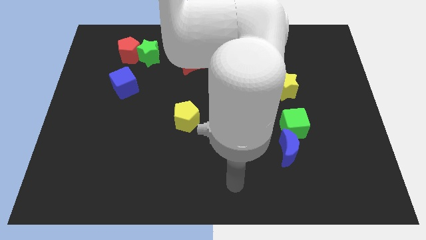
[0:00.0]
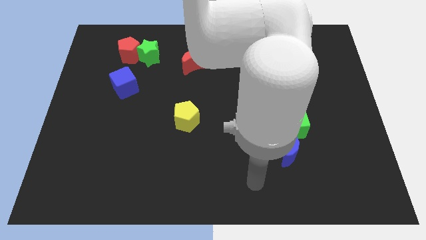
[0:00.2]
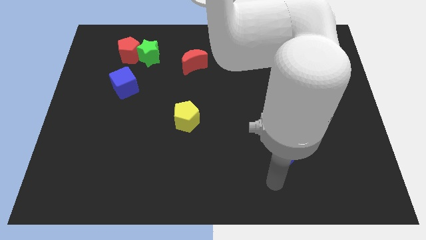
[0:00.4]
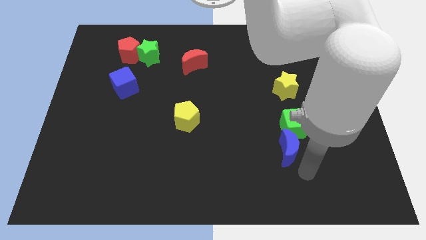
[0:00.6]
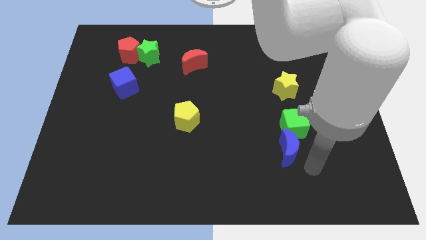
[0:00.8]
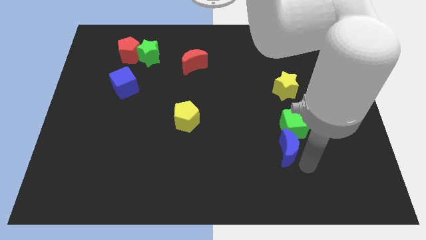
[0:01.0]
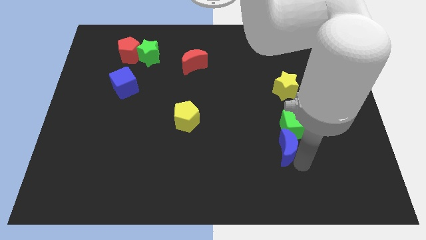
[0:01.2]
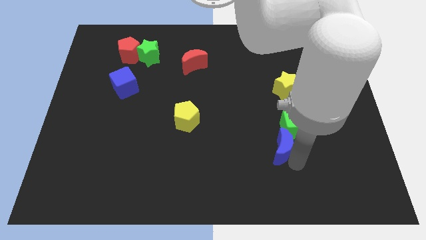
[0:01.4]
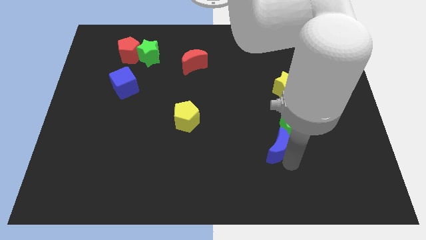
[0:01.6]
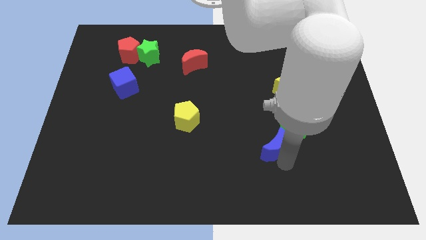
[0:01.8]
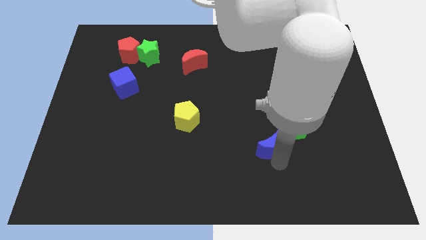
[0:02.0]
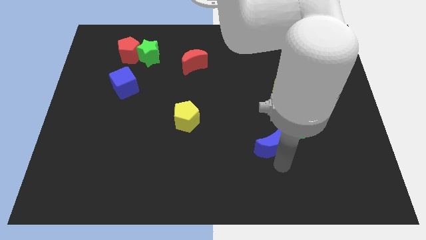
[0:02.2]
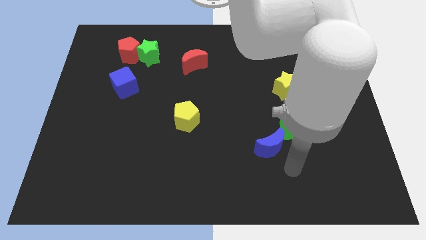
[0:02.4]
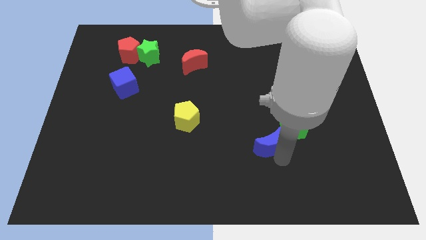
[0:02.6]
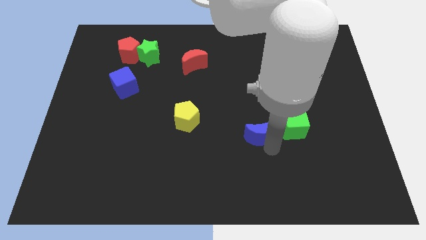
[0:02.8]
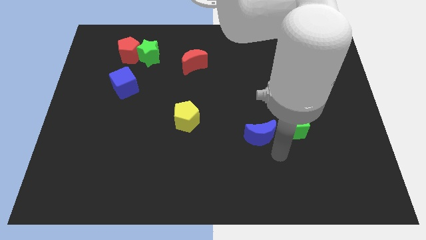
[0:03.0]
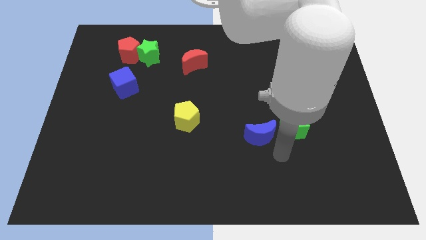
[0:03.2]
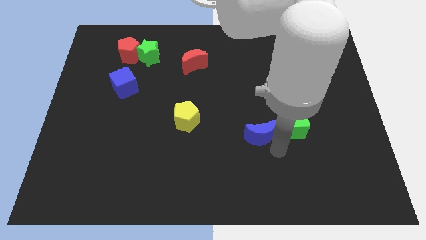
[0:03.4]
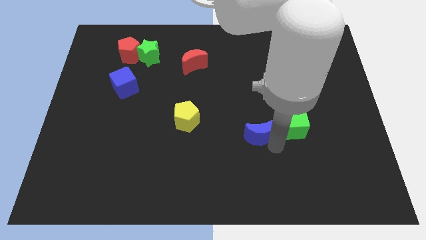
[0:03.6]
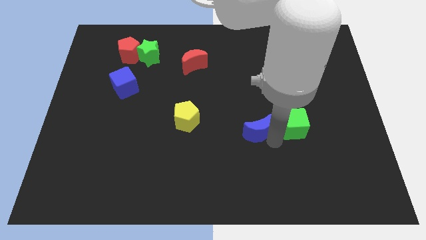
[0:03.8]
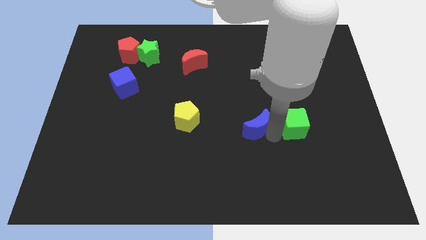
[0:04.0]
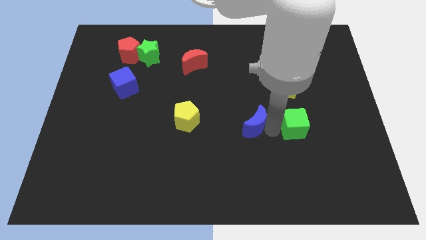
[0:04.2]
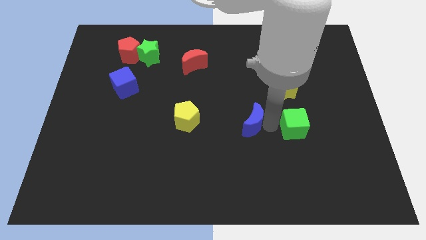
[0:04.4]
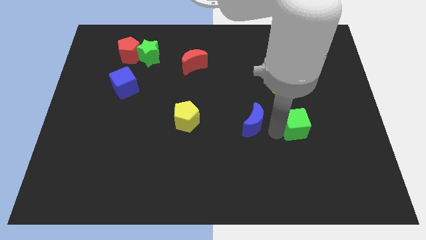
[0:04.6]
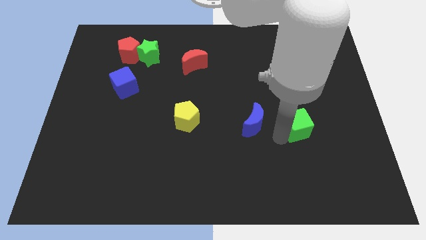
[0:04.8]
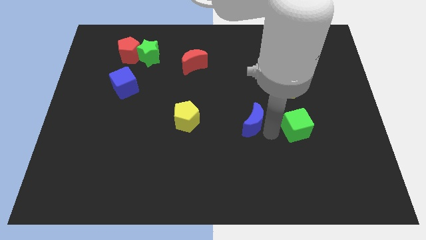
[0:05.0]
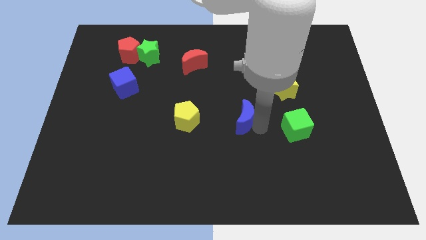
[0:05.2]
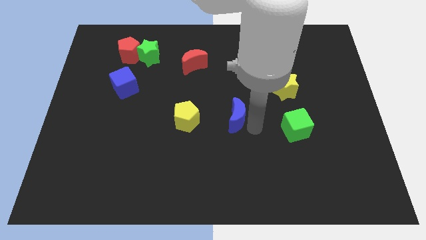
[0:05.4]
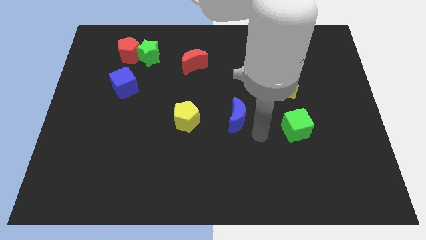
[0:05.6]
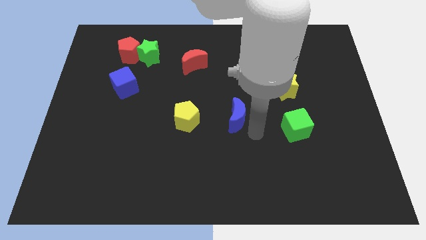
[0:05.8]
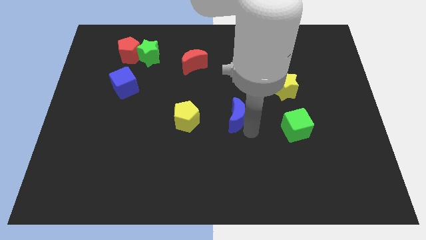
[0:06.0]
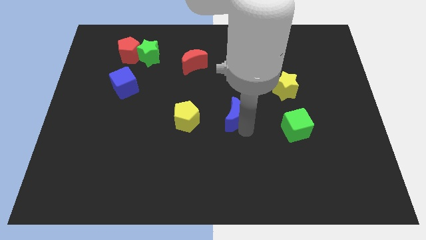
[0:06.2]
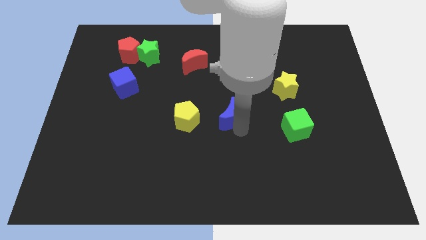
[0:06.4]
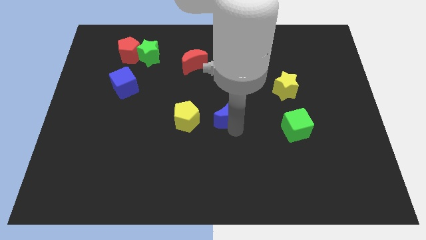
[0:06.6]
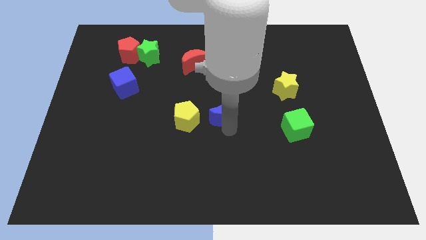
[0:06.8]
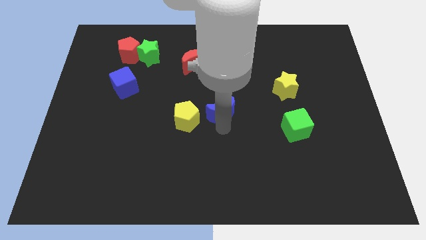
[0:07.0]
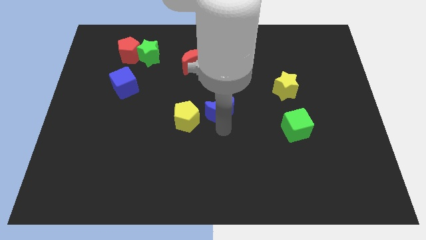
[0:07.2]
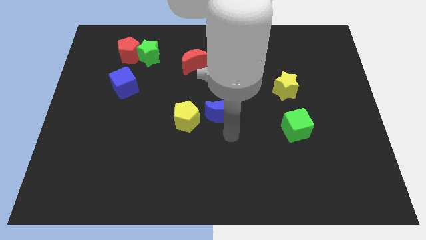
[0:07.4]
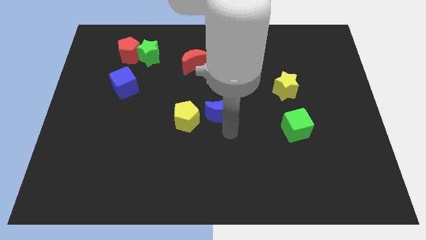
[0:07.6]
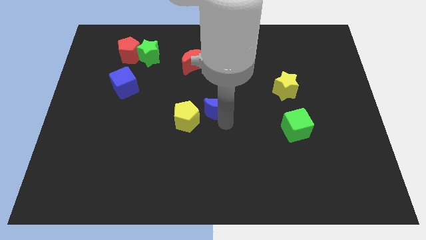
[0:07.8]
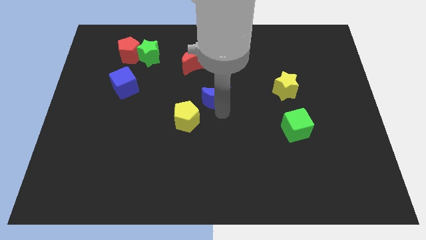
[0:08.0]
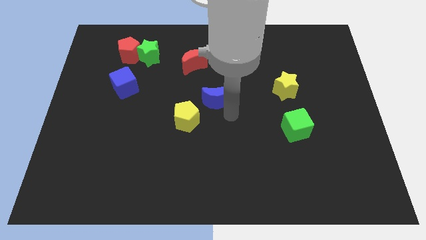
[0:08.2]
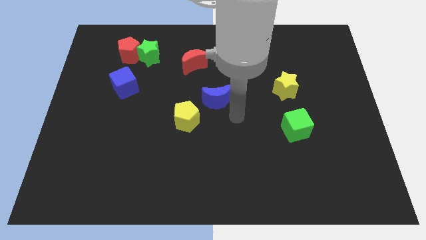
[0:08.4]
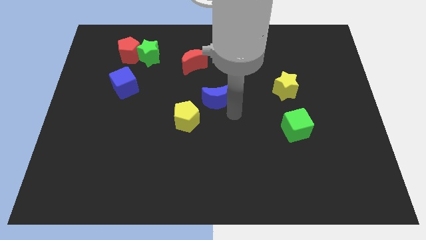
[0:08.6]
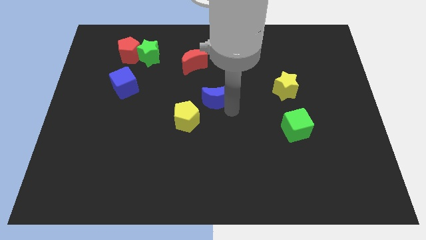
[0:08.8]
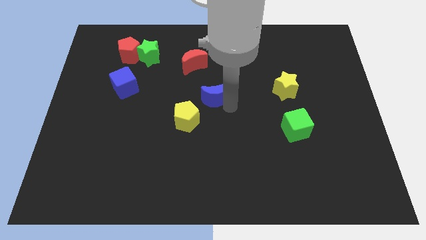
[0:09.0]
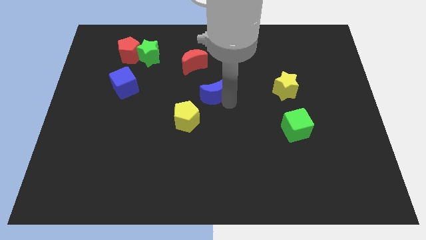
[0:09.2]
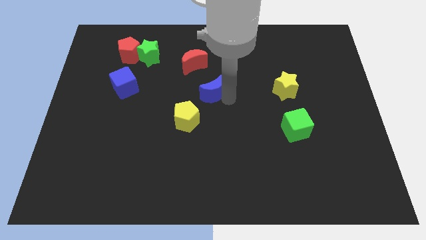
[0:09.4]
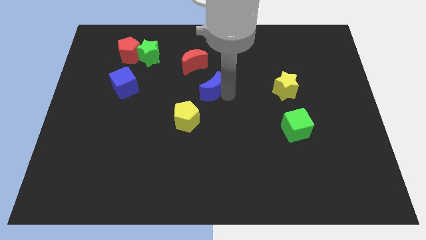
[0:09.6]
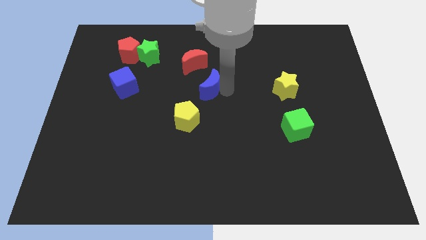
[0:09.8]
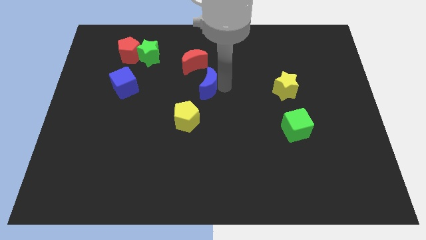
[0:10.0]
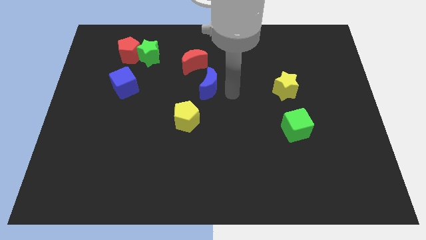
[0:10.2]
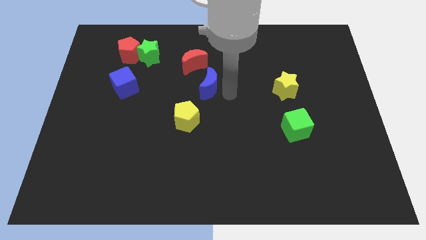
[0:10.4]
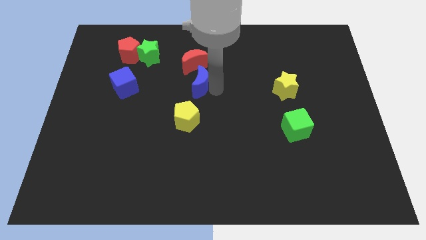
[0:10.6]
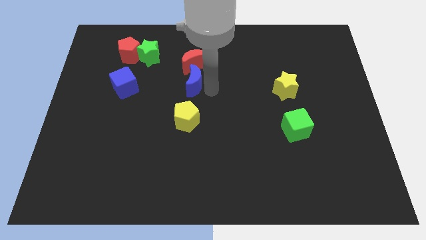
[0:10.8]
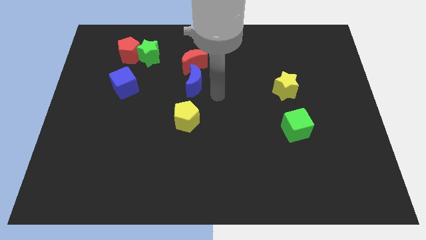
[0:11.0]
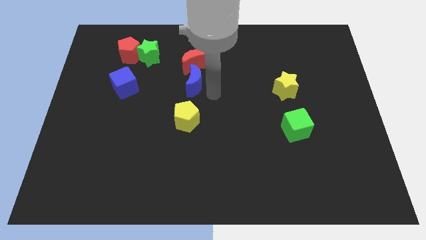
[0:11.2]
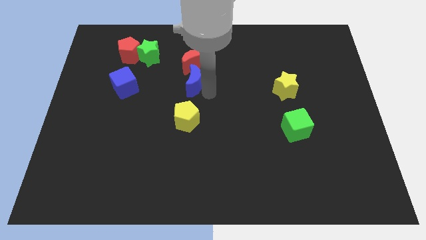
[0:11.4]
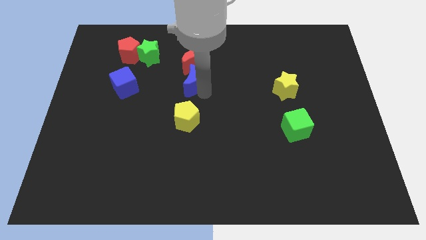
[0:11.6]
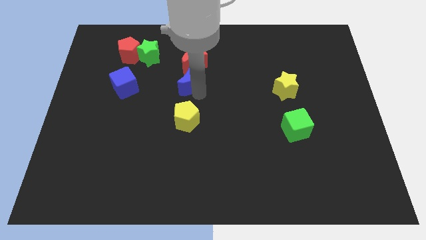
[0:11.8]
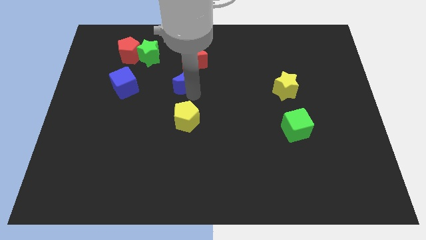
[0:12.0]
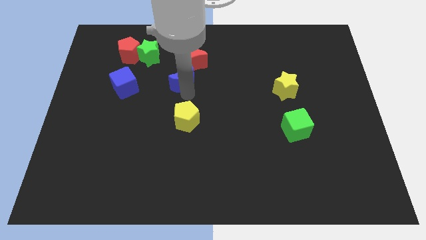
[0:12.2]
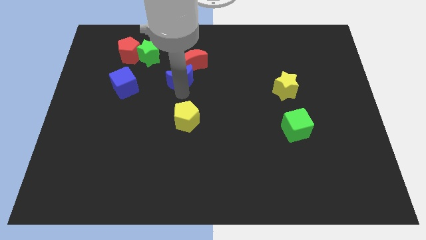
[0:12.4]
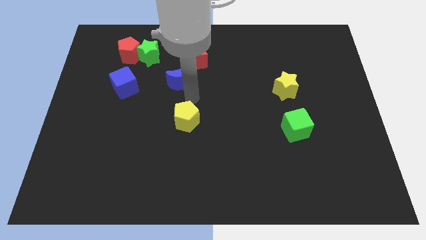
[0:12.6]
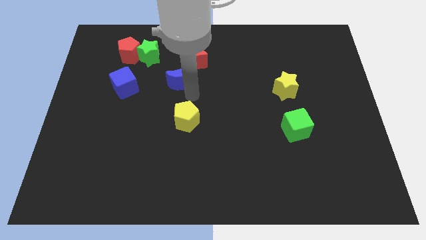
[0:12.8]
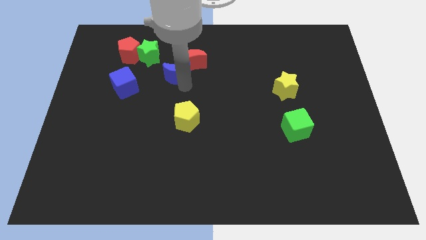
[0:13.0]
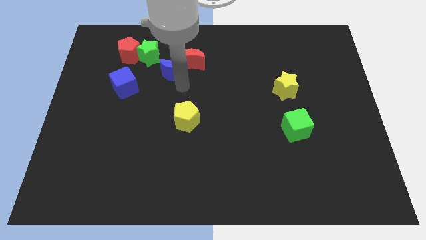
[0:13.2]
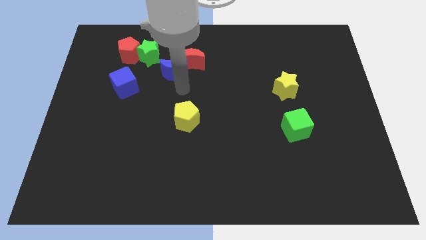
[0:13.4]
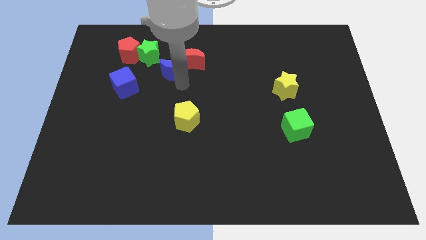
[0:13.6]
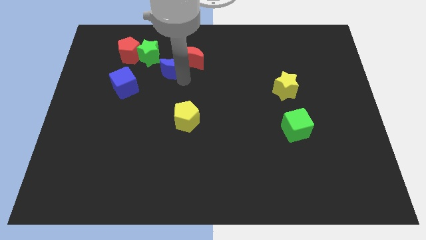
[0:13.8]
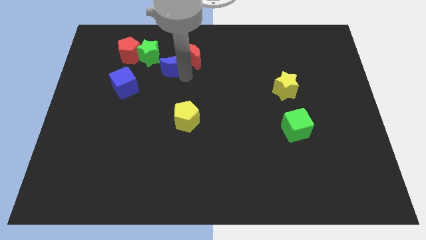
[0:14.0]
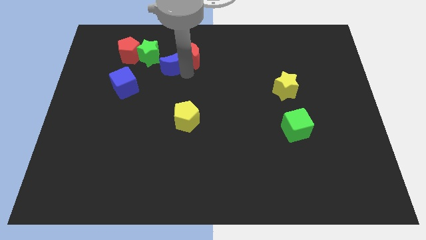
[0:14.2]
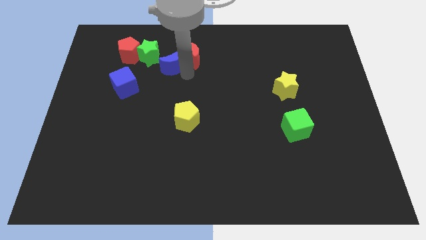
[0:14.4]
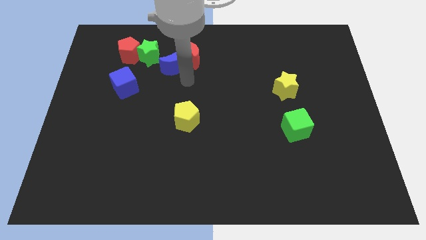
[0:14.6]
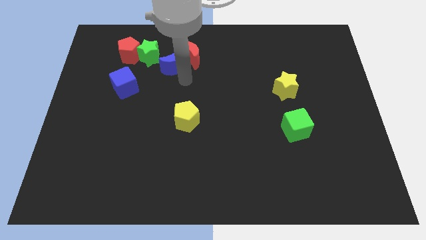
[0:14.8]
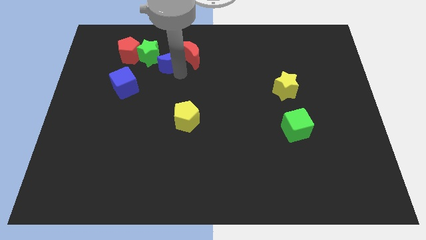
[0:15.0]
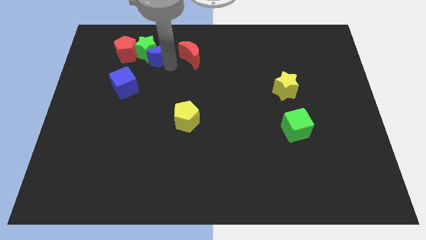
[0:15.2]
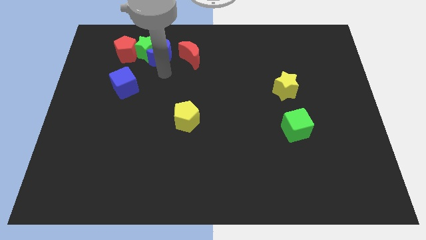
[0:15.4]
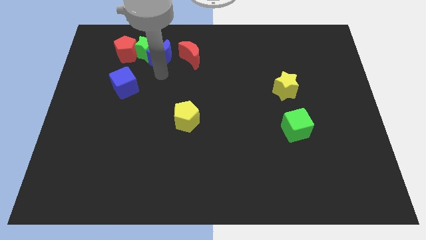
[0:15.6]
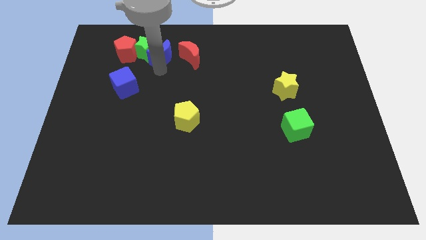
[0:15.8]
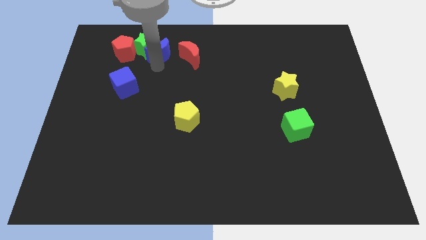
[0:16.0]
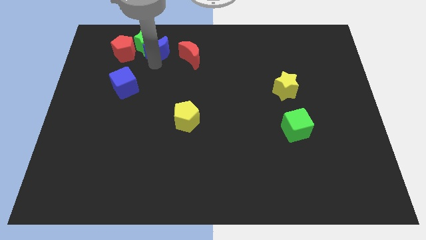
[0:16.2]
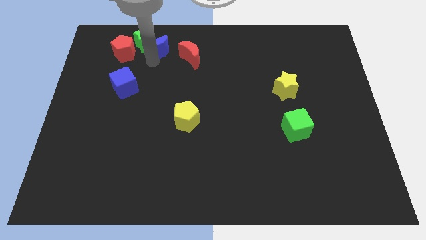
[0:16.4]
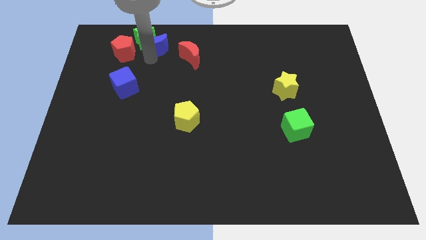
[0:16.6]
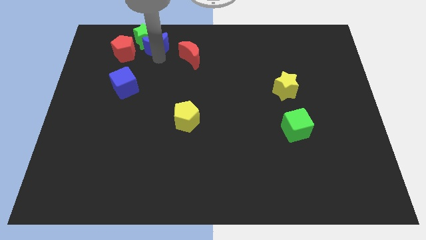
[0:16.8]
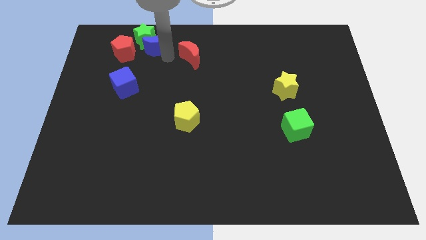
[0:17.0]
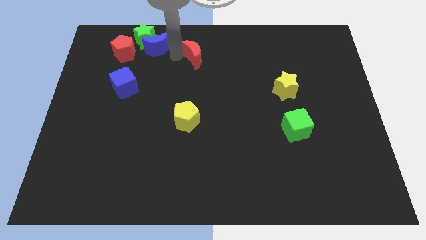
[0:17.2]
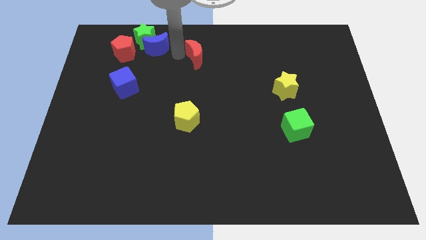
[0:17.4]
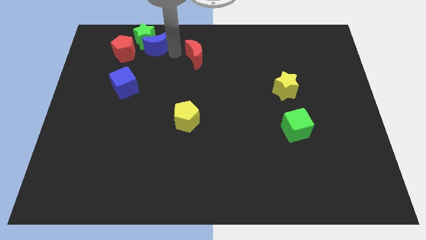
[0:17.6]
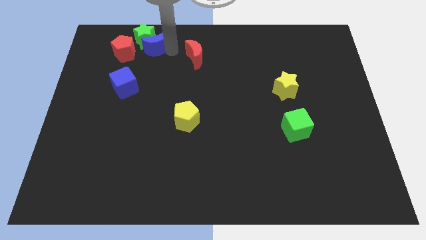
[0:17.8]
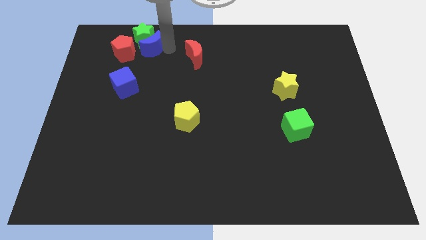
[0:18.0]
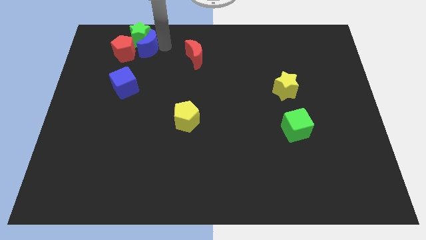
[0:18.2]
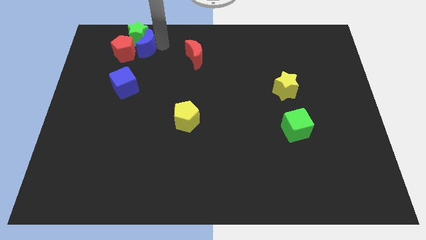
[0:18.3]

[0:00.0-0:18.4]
push the blue moon to the top of the blue cube
